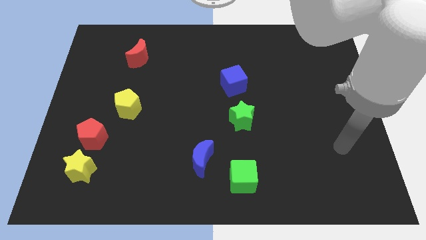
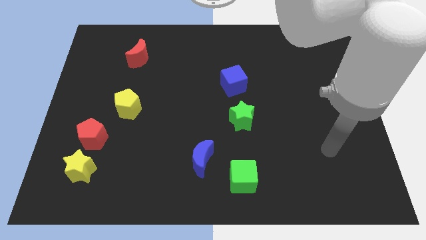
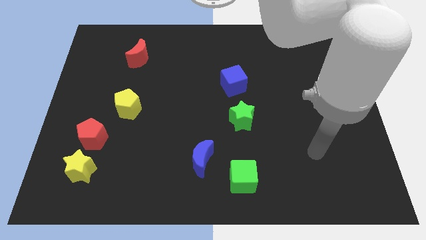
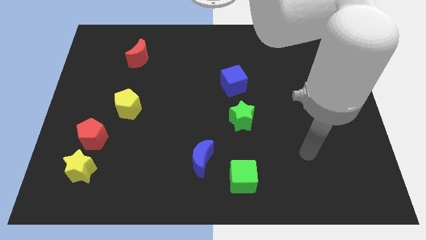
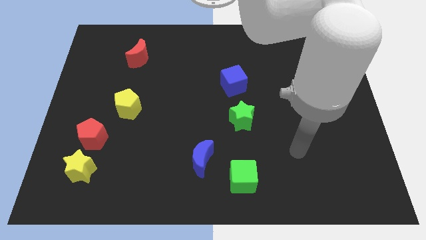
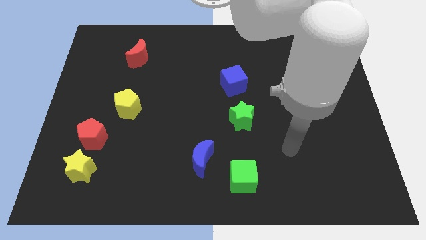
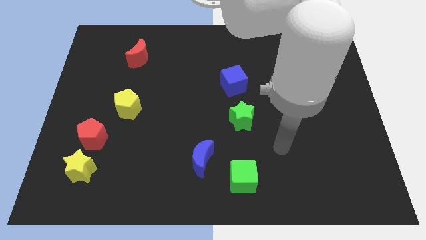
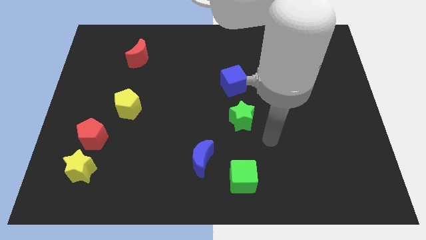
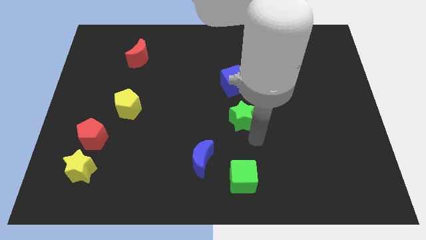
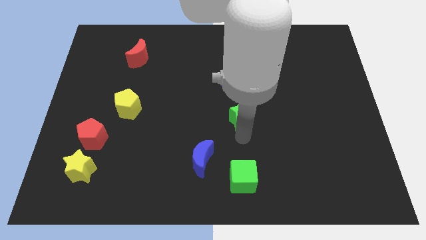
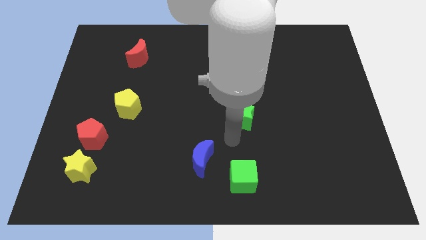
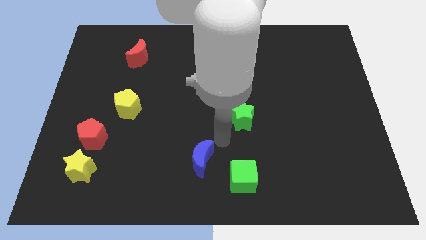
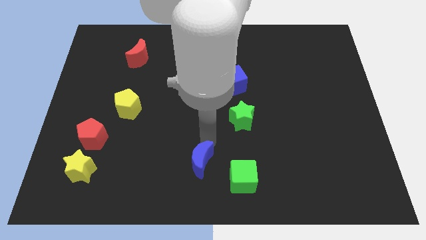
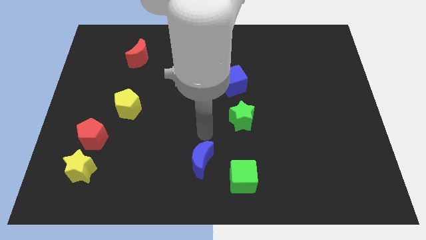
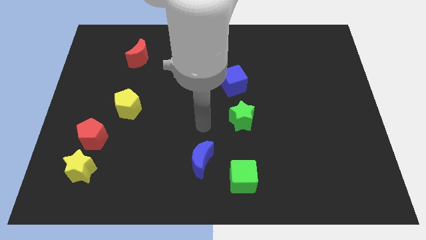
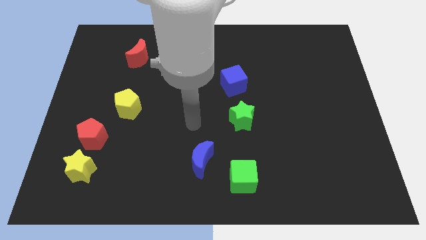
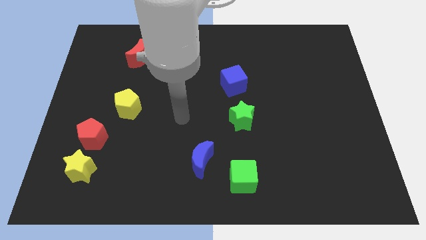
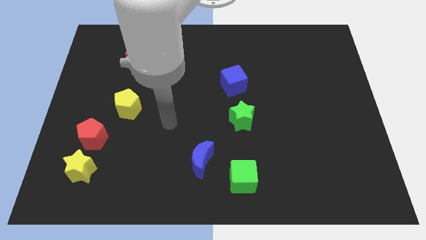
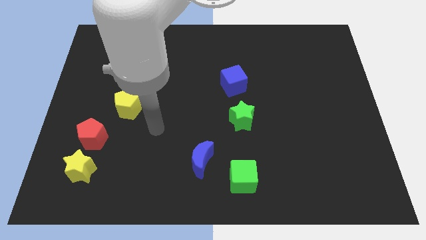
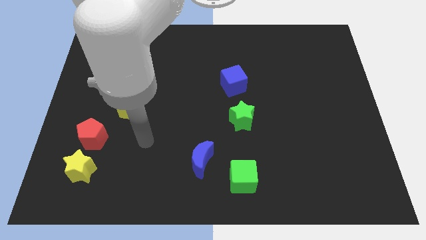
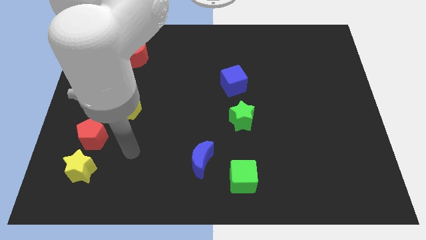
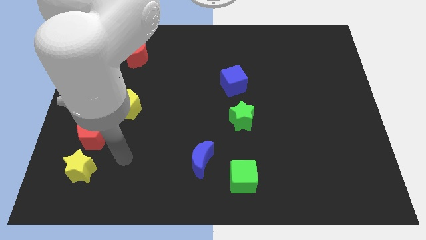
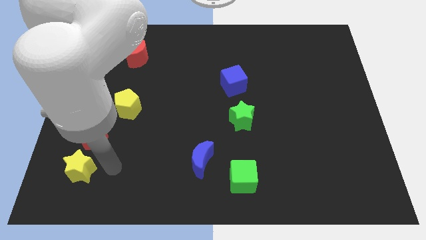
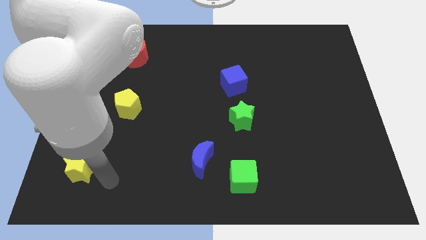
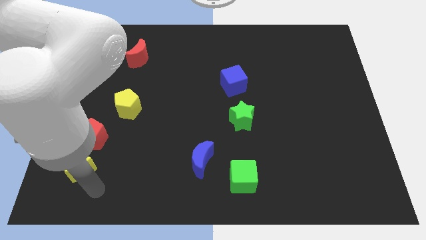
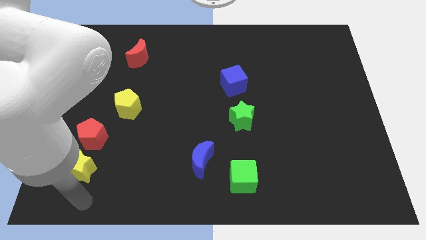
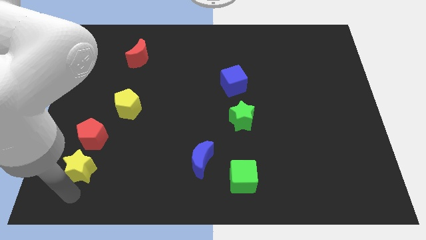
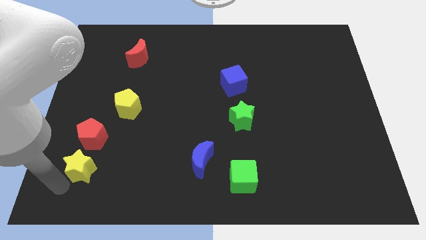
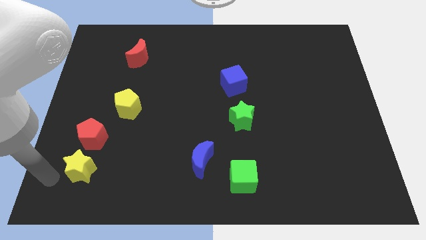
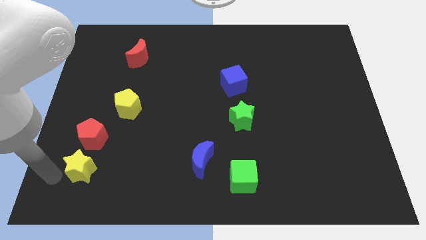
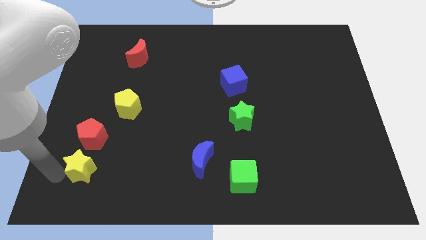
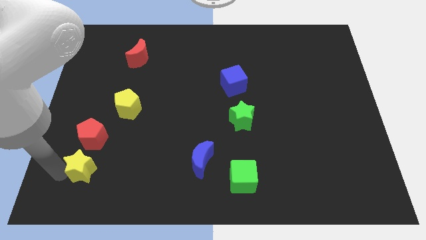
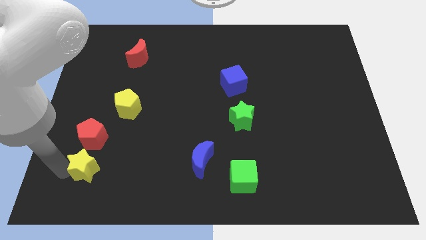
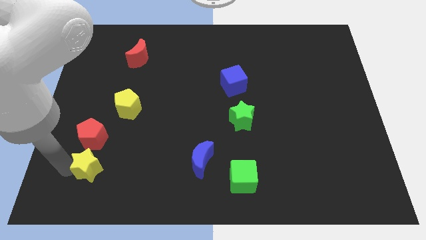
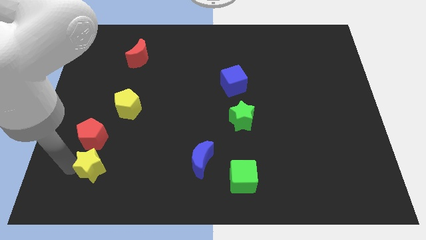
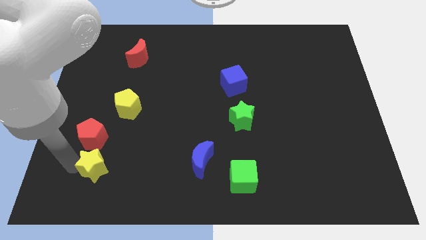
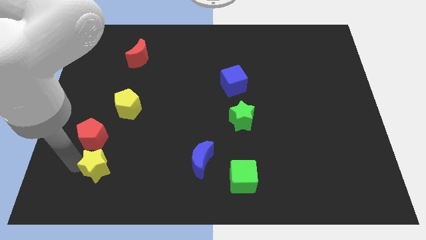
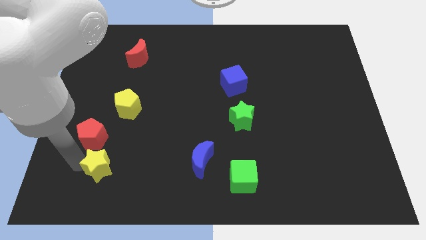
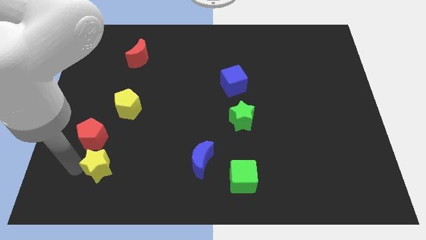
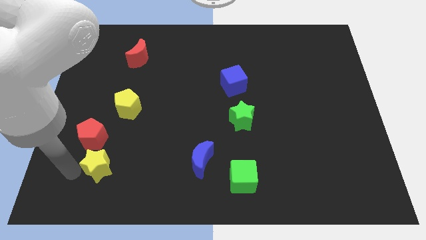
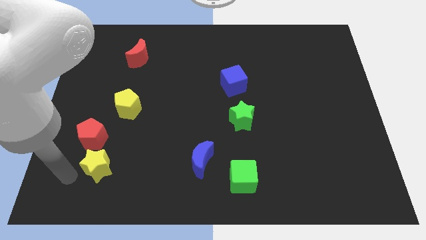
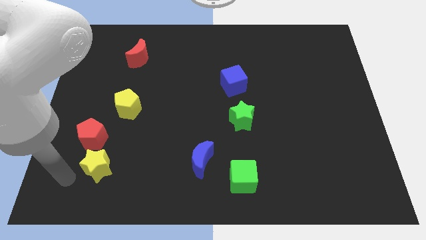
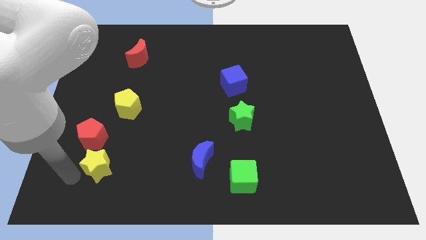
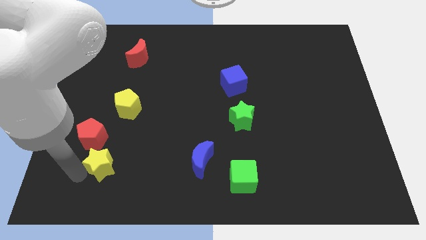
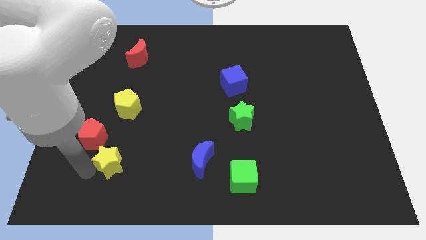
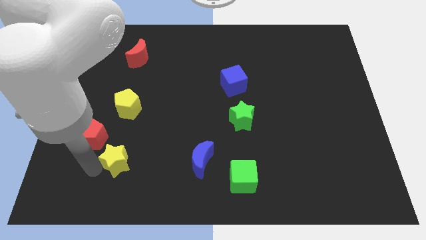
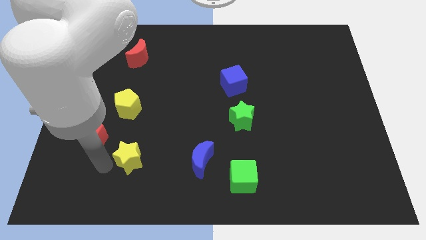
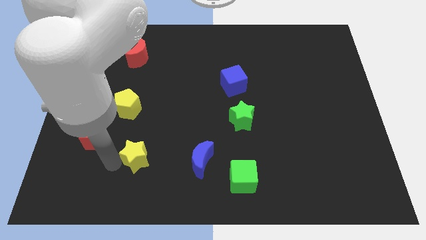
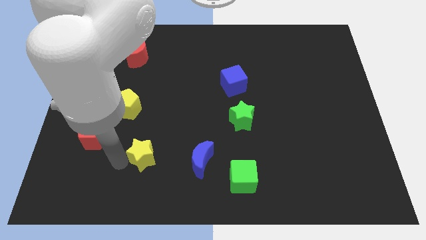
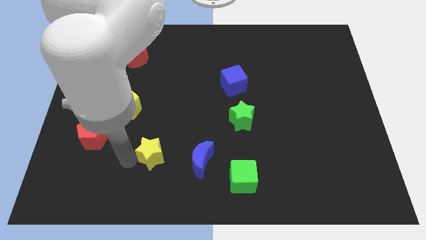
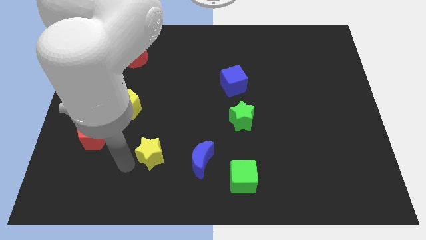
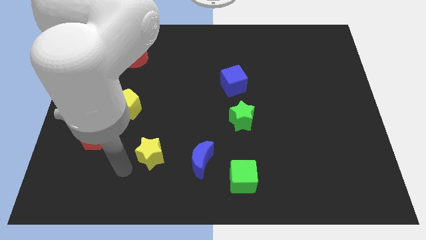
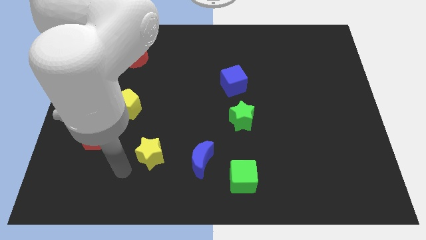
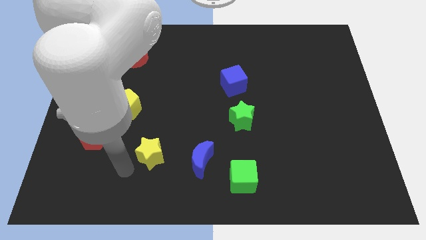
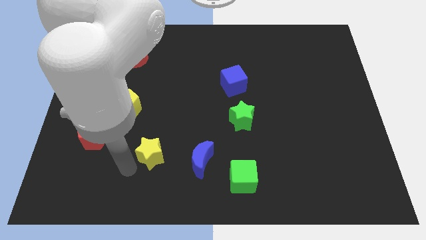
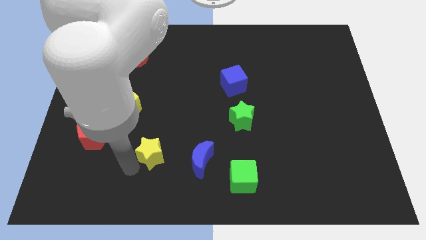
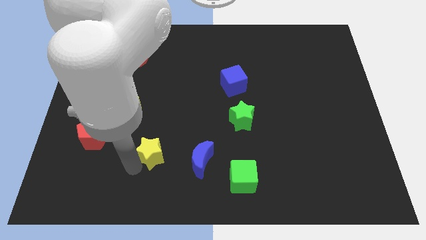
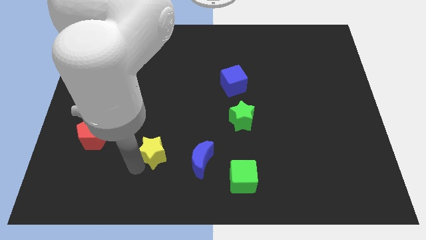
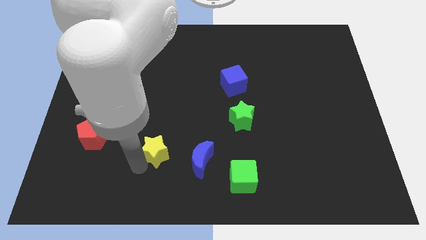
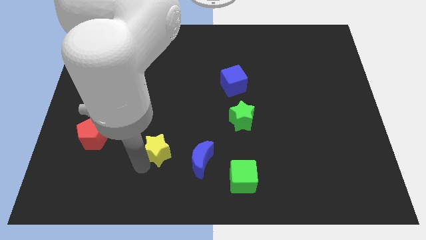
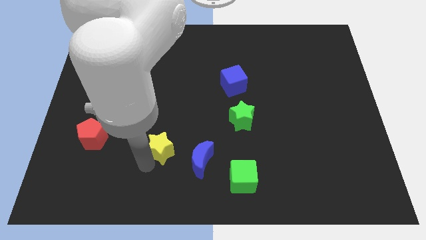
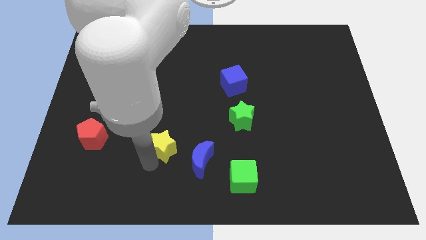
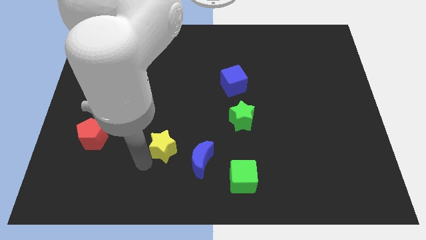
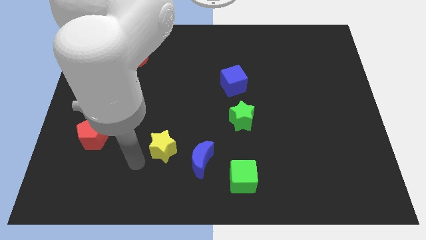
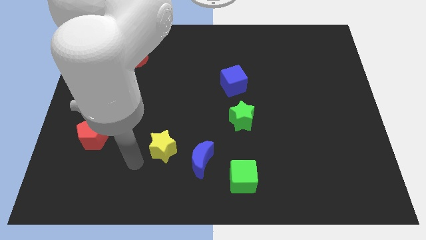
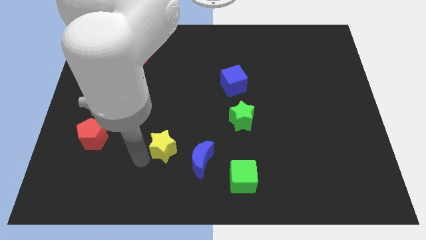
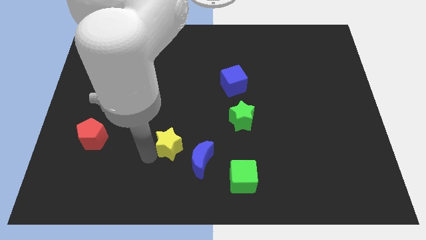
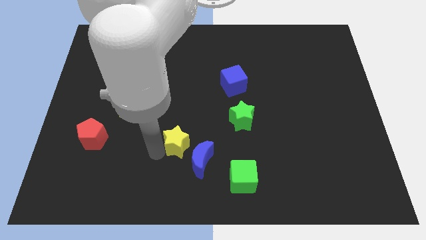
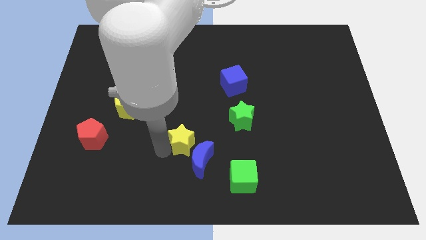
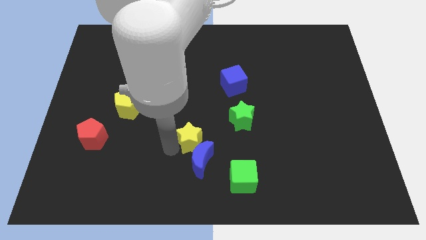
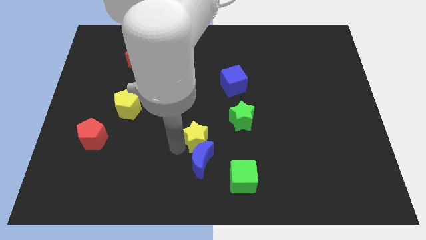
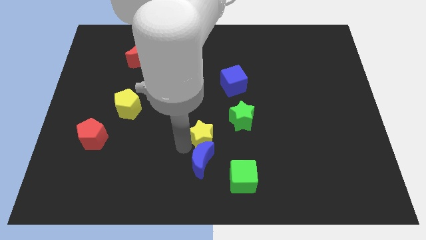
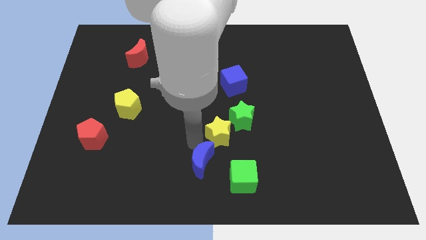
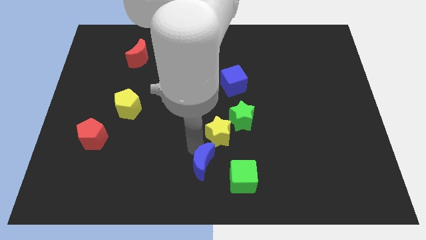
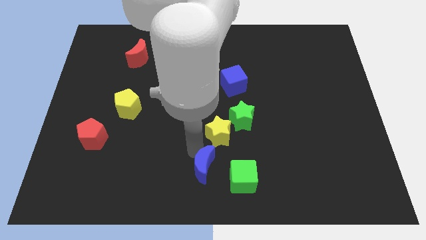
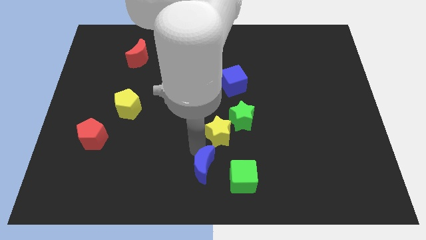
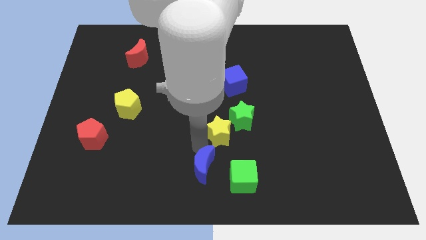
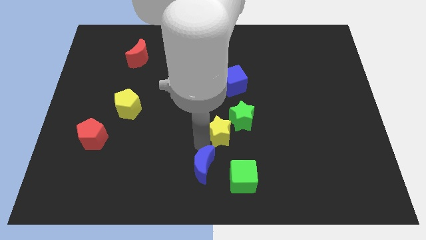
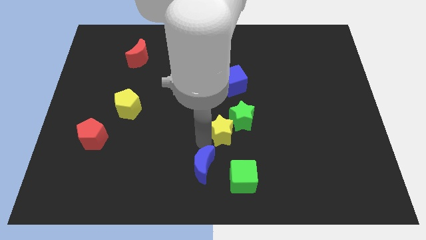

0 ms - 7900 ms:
slide the yellow star towards the green star
